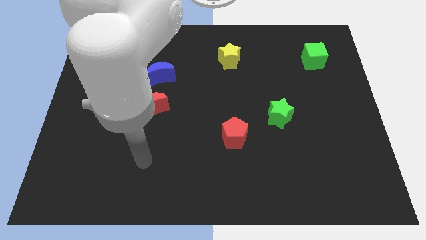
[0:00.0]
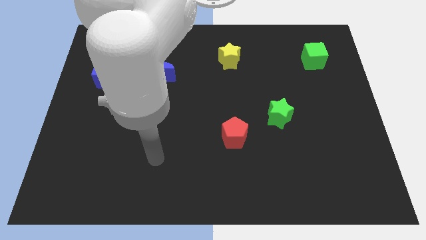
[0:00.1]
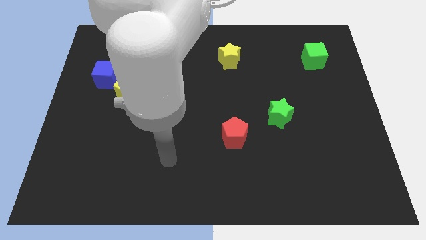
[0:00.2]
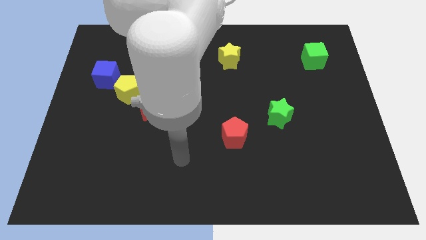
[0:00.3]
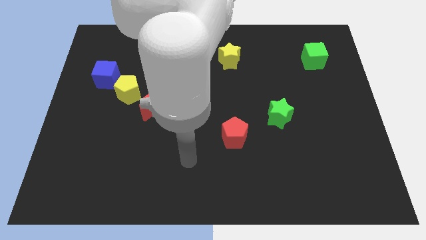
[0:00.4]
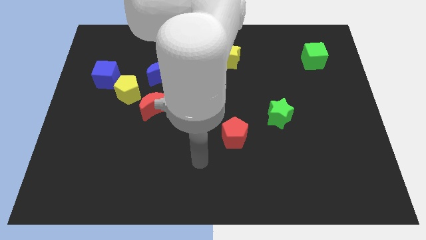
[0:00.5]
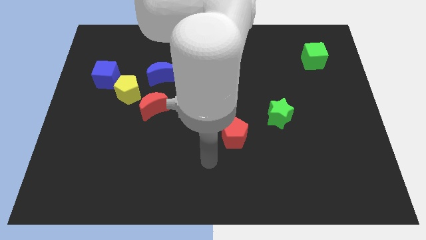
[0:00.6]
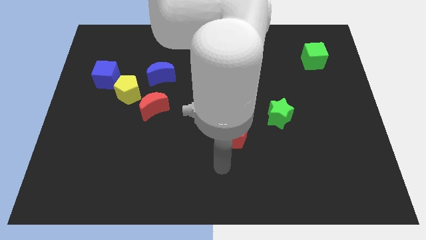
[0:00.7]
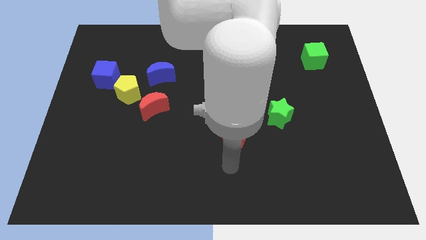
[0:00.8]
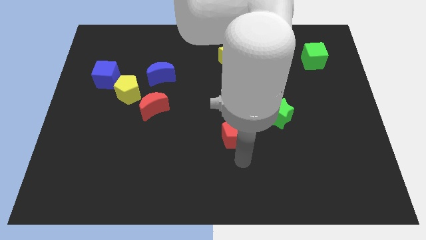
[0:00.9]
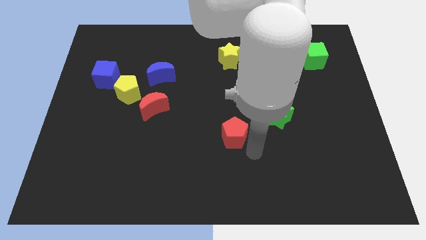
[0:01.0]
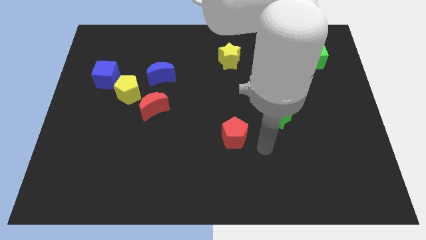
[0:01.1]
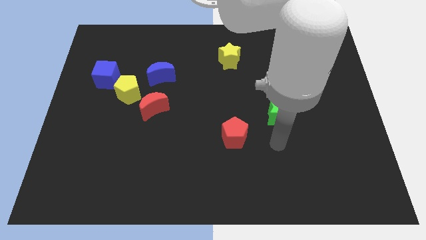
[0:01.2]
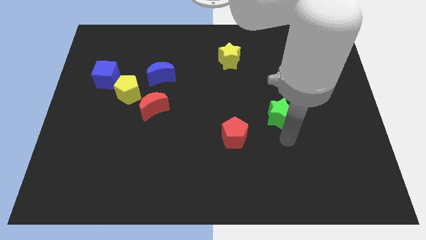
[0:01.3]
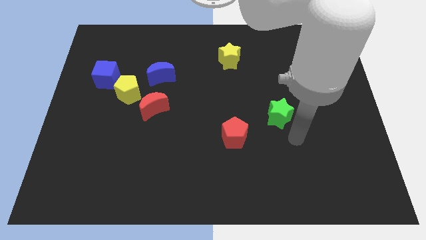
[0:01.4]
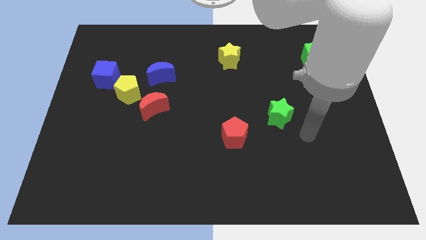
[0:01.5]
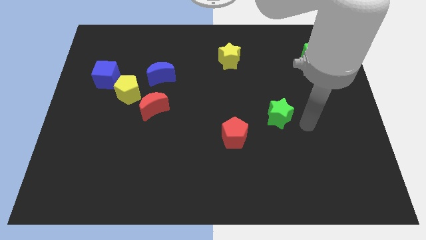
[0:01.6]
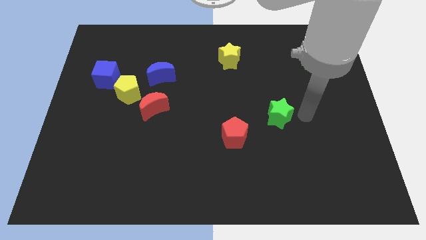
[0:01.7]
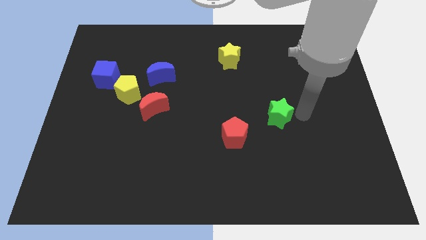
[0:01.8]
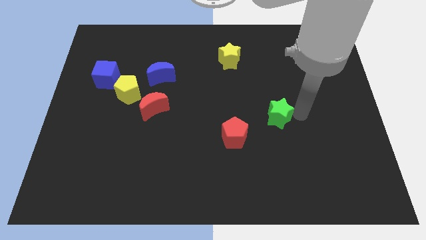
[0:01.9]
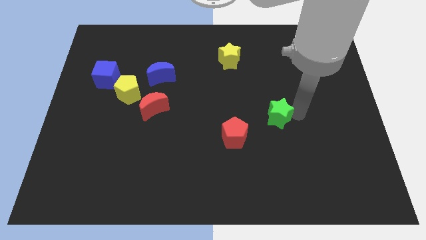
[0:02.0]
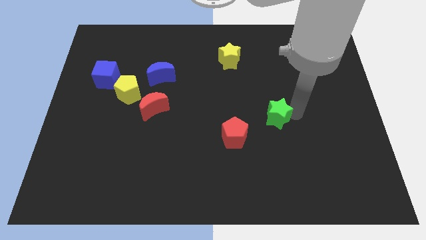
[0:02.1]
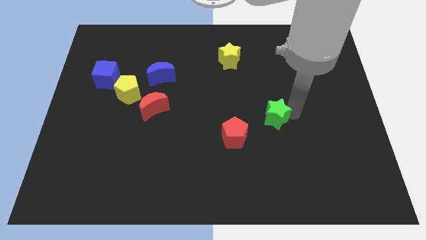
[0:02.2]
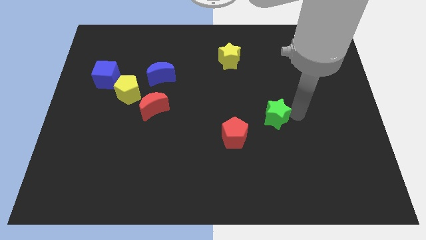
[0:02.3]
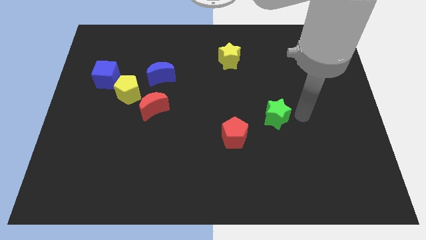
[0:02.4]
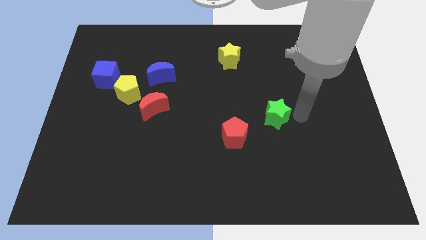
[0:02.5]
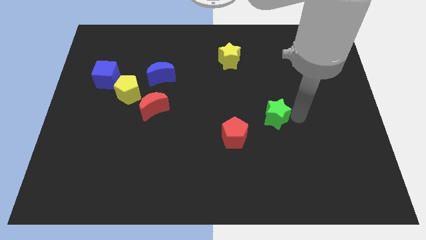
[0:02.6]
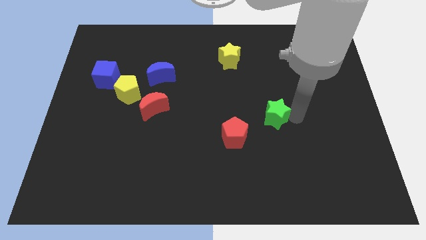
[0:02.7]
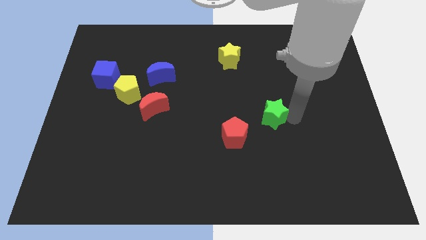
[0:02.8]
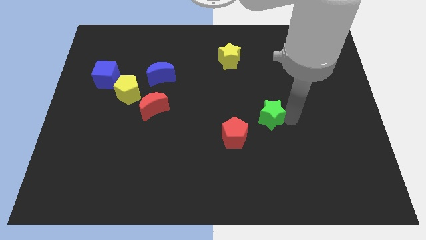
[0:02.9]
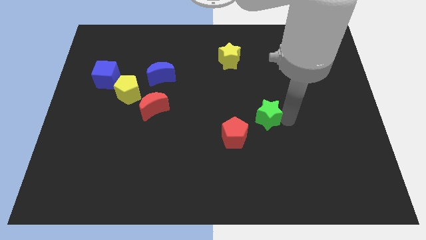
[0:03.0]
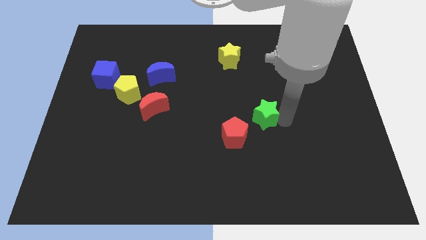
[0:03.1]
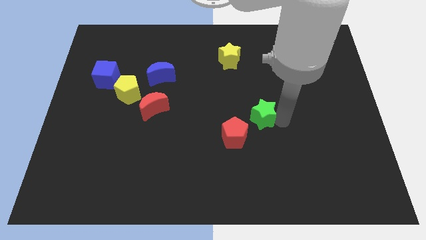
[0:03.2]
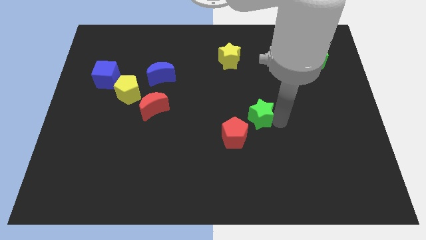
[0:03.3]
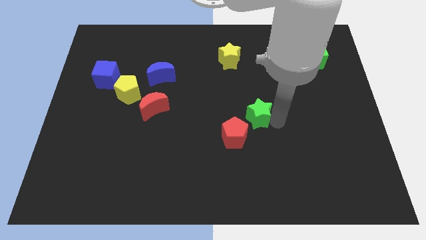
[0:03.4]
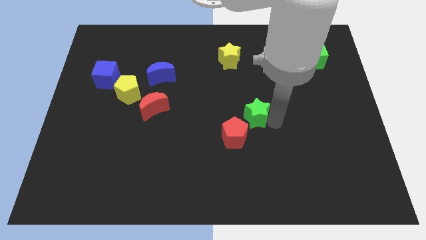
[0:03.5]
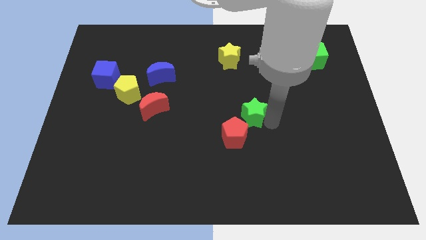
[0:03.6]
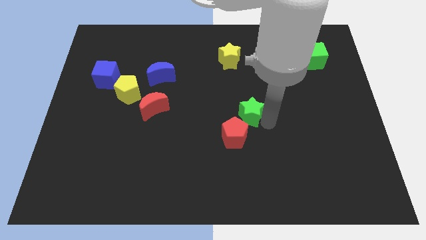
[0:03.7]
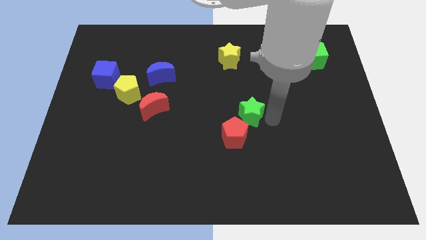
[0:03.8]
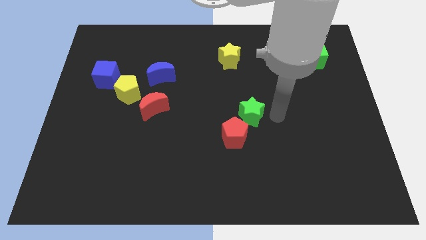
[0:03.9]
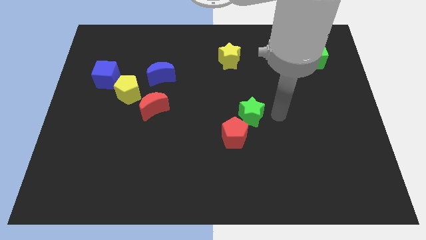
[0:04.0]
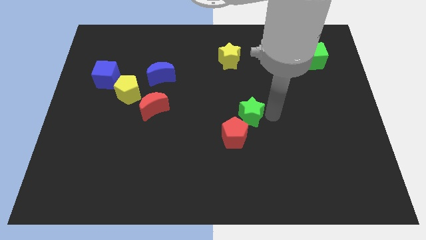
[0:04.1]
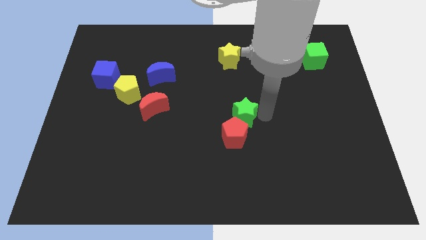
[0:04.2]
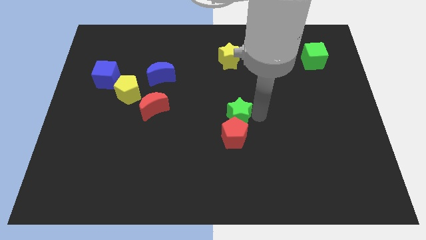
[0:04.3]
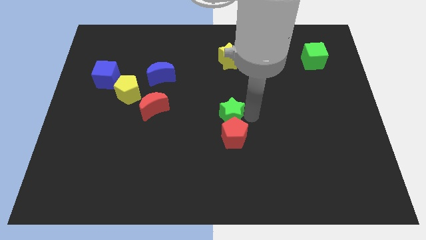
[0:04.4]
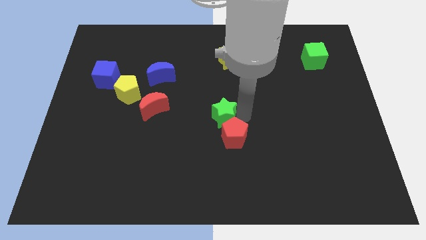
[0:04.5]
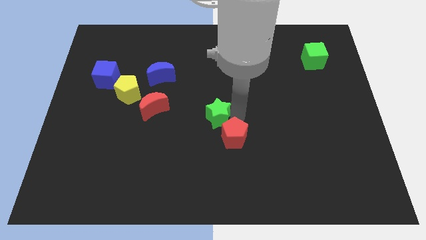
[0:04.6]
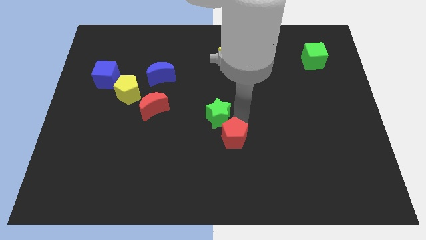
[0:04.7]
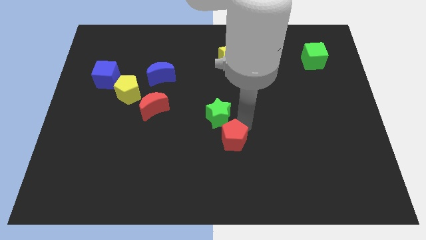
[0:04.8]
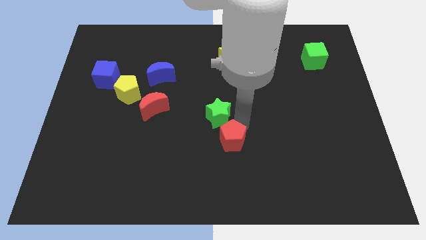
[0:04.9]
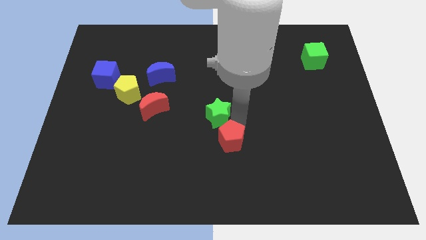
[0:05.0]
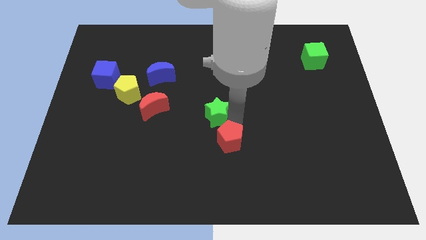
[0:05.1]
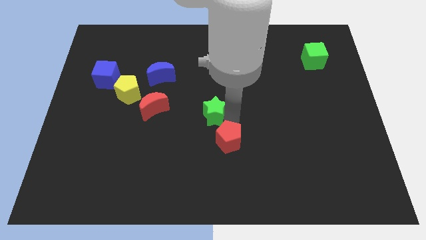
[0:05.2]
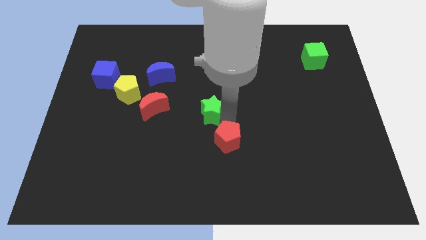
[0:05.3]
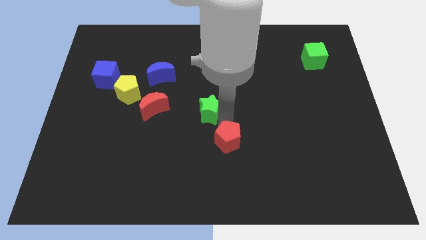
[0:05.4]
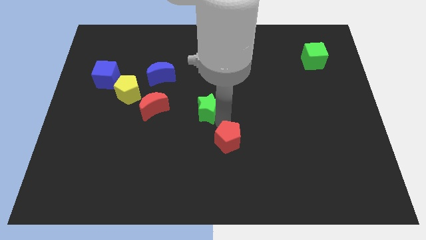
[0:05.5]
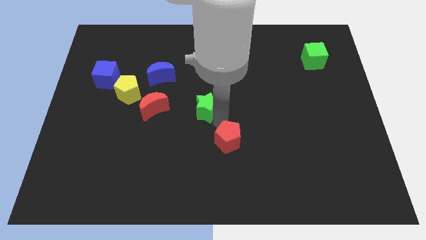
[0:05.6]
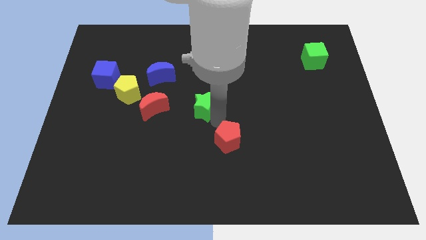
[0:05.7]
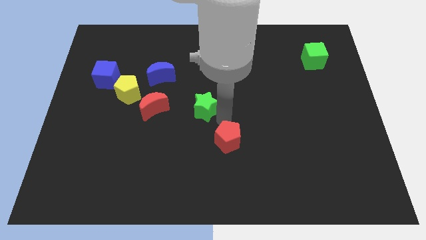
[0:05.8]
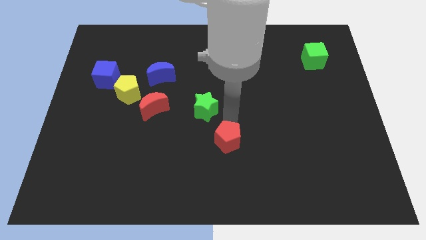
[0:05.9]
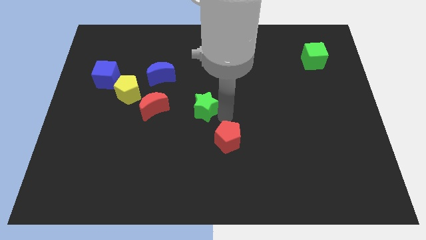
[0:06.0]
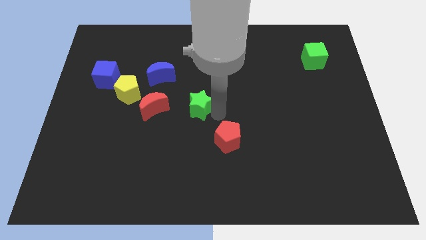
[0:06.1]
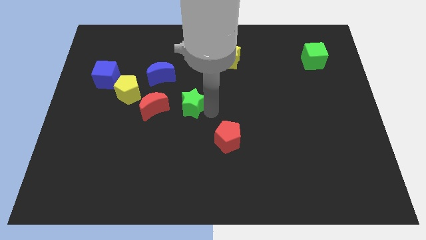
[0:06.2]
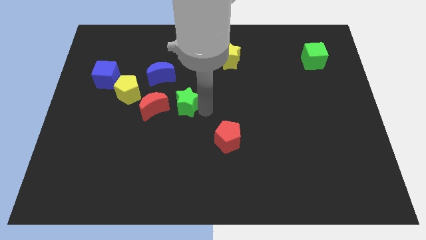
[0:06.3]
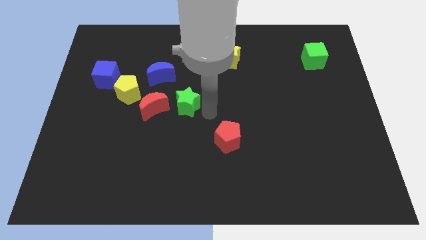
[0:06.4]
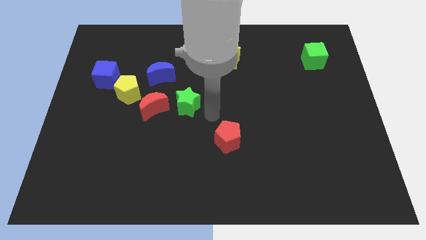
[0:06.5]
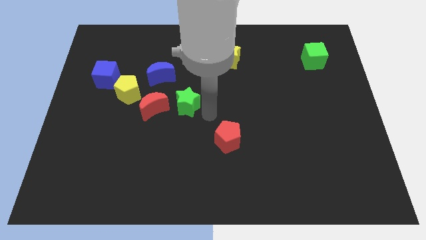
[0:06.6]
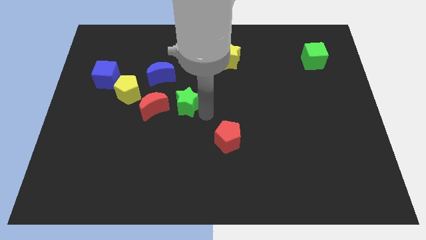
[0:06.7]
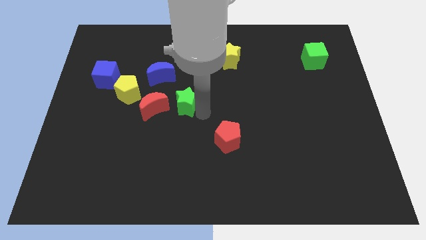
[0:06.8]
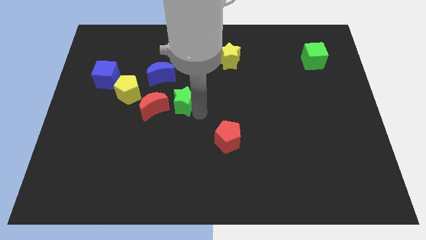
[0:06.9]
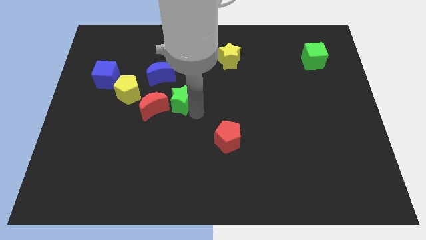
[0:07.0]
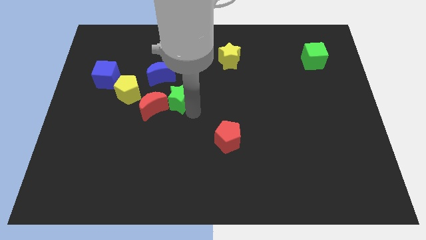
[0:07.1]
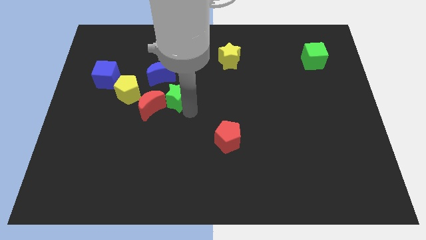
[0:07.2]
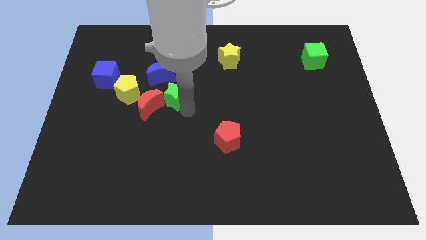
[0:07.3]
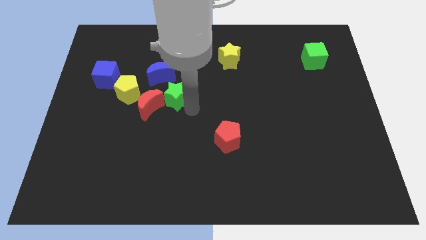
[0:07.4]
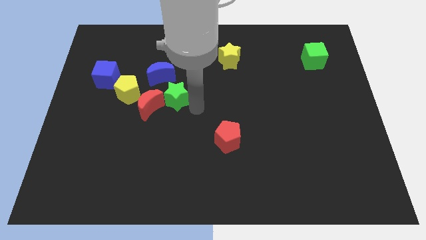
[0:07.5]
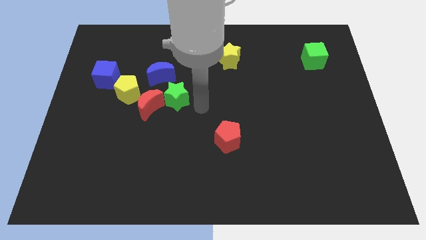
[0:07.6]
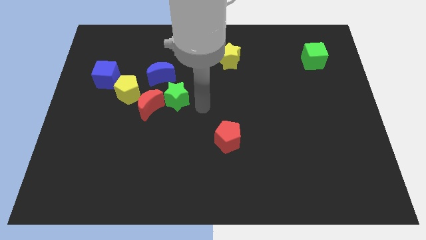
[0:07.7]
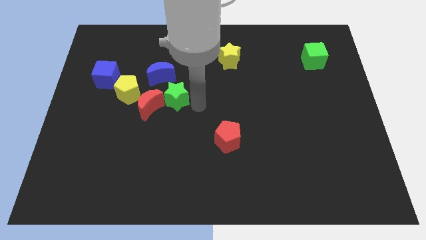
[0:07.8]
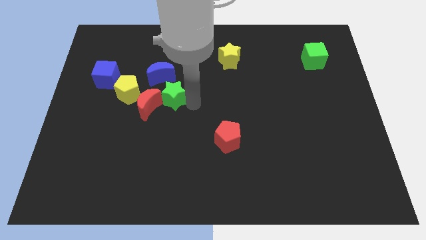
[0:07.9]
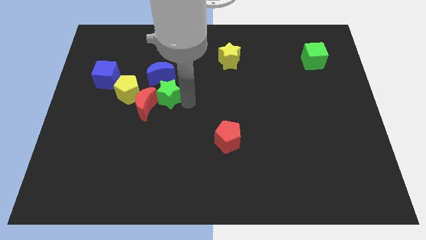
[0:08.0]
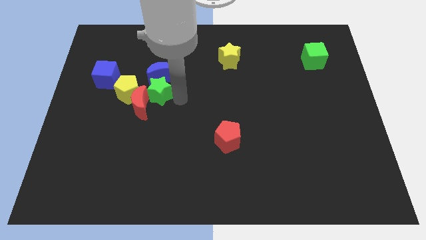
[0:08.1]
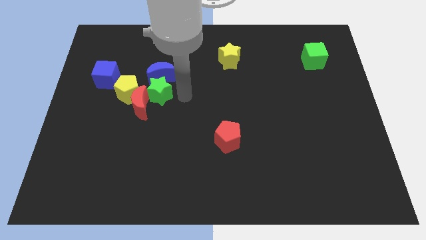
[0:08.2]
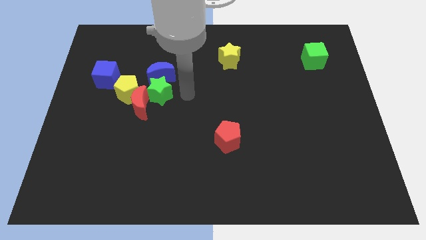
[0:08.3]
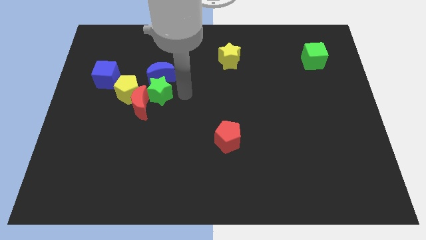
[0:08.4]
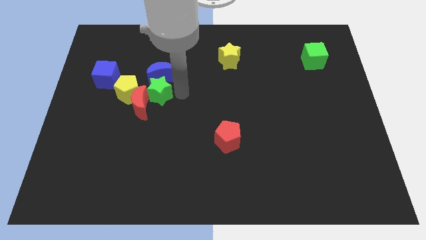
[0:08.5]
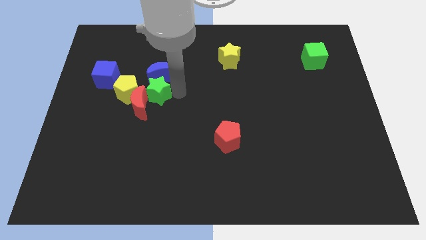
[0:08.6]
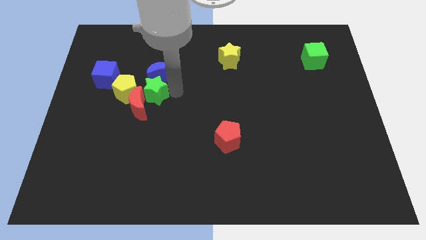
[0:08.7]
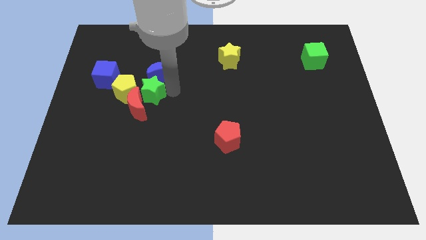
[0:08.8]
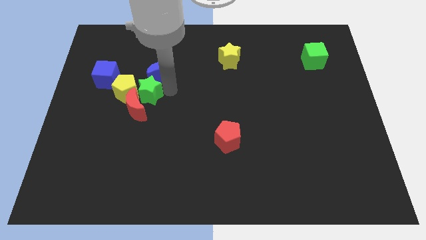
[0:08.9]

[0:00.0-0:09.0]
slide the green star next to the yellow pentagon
